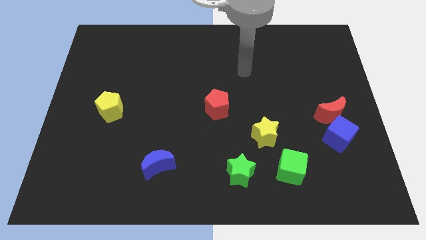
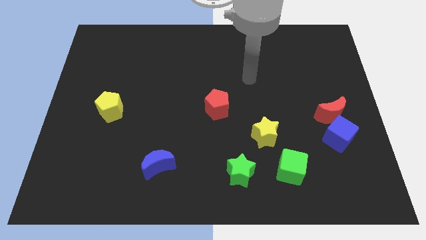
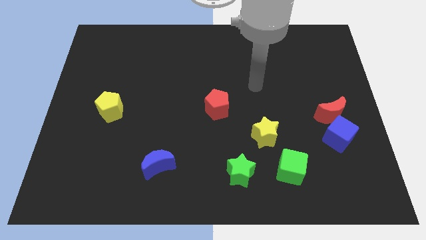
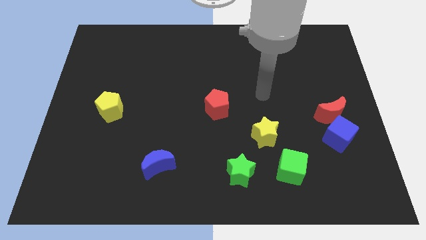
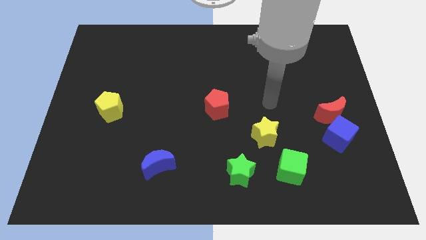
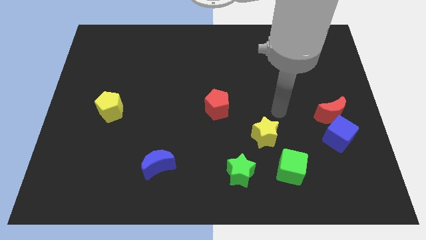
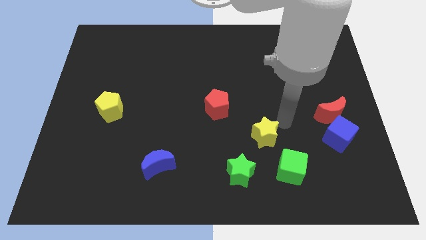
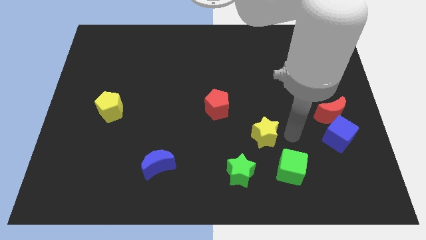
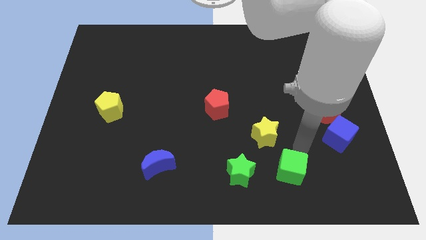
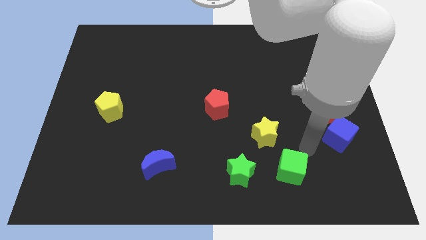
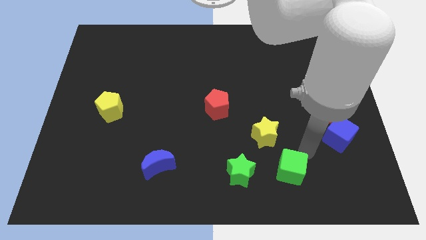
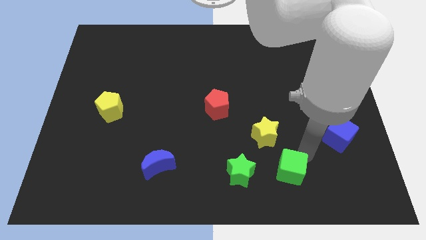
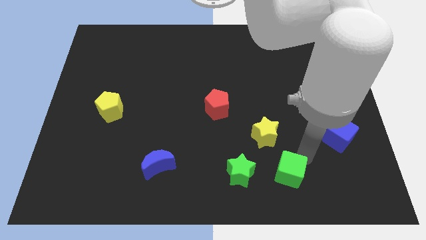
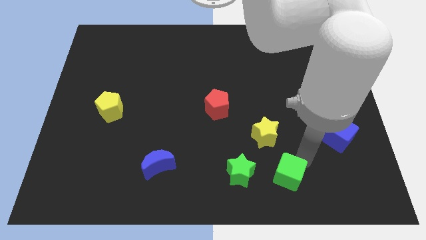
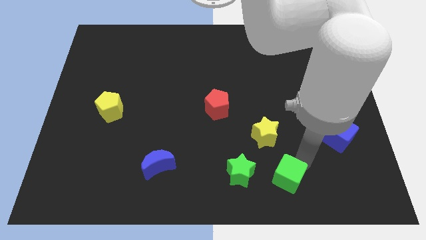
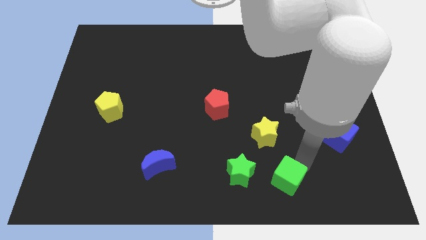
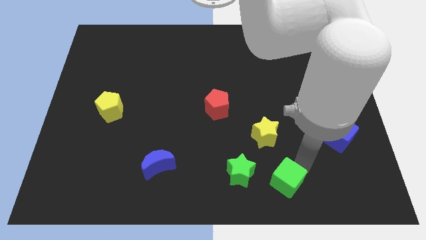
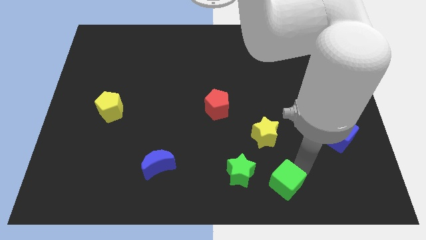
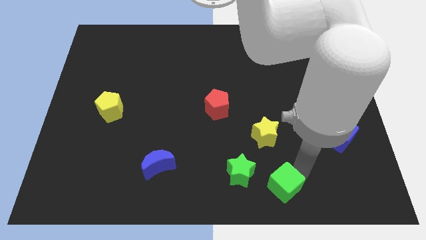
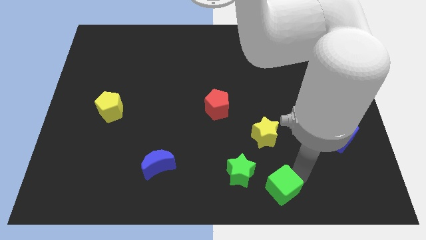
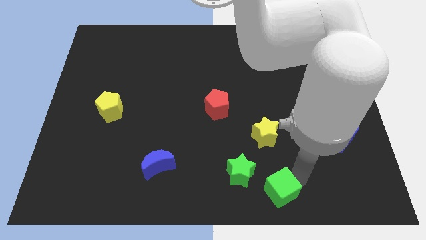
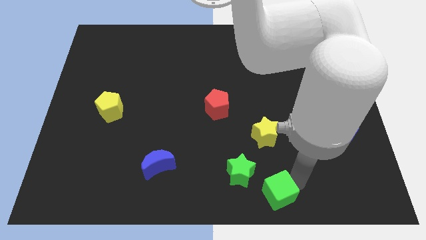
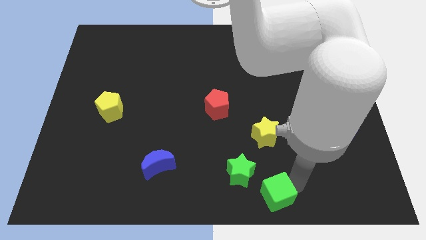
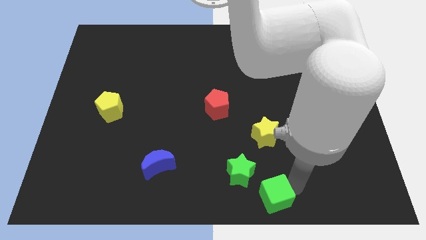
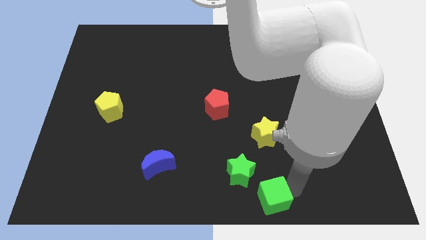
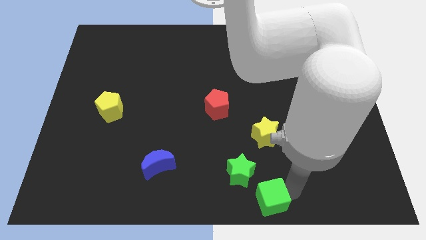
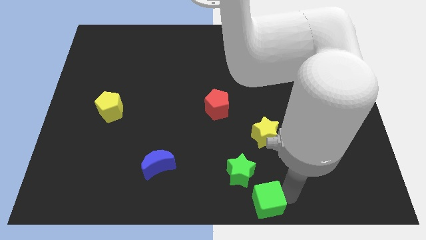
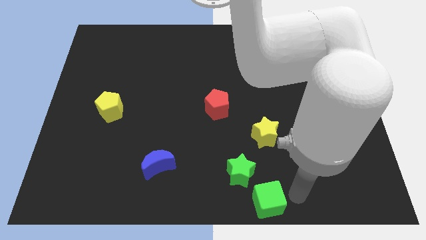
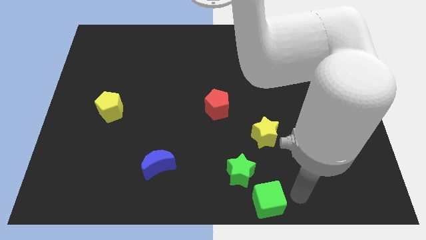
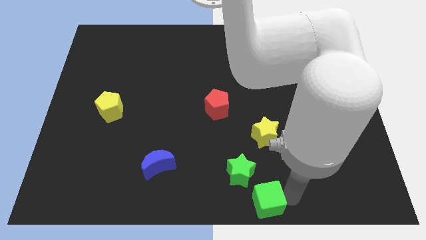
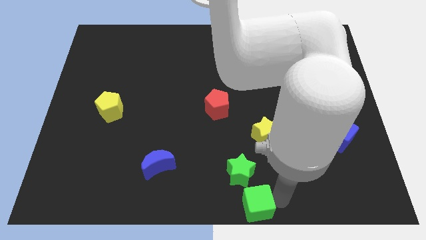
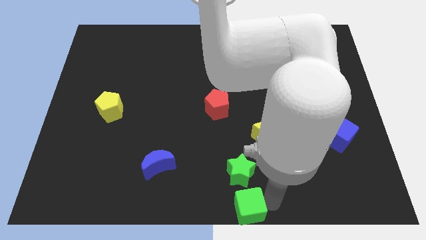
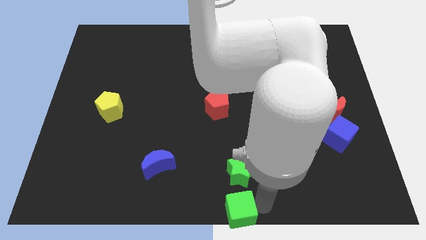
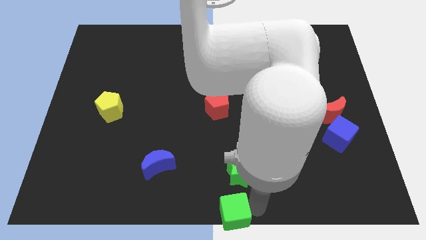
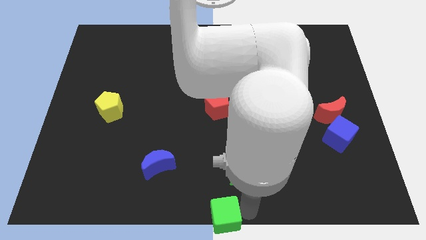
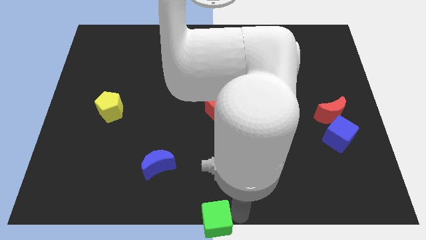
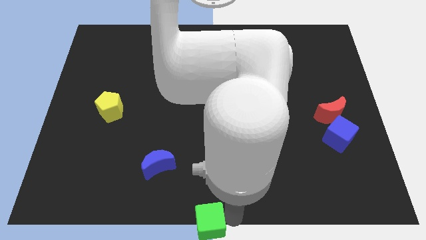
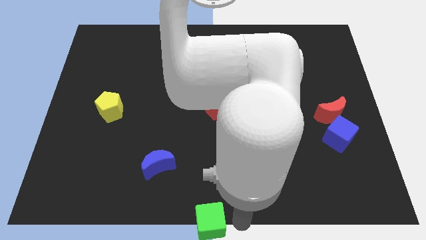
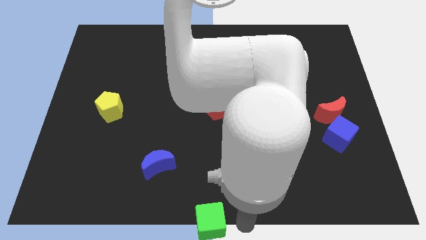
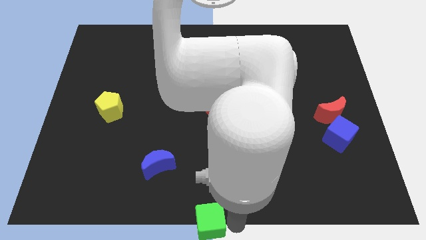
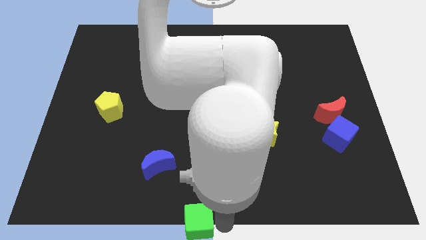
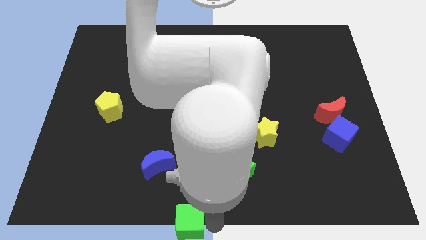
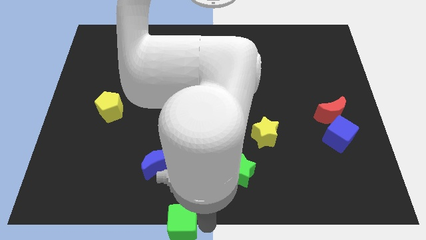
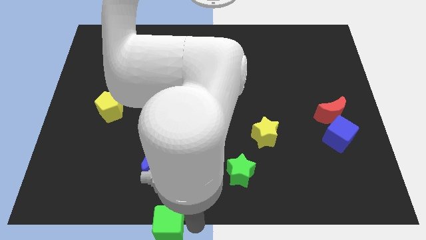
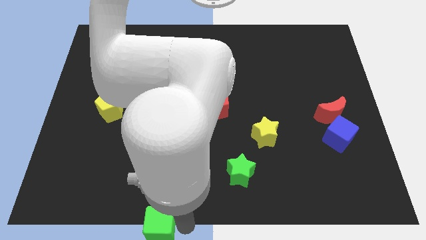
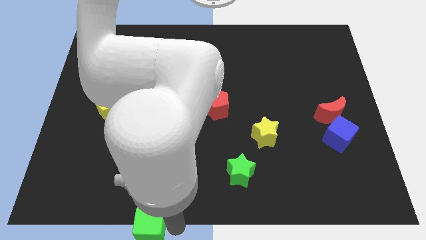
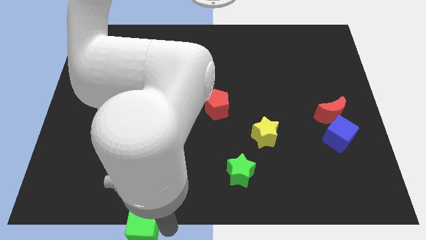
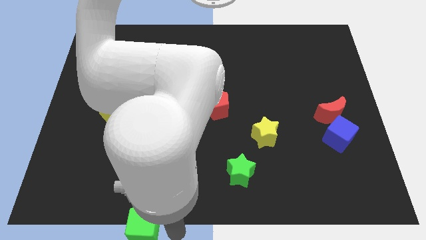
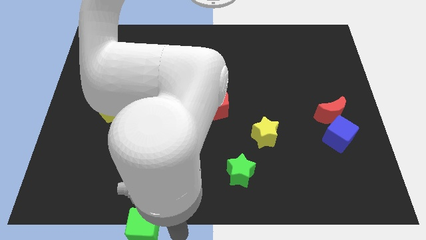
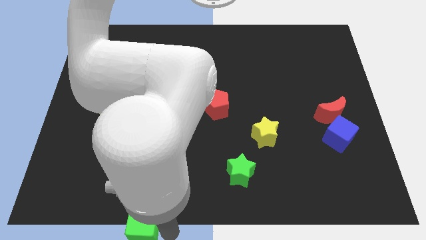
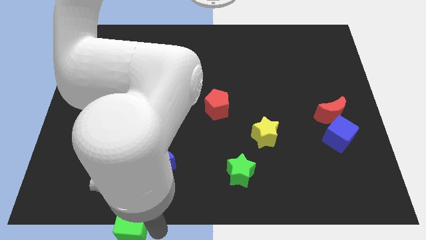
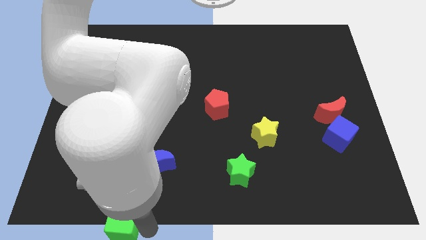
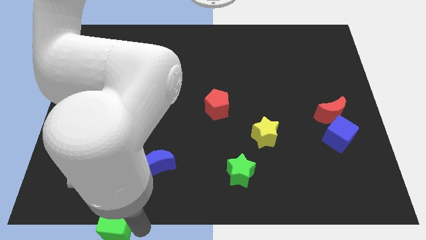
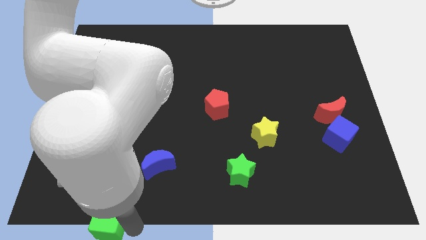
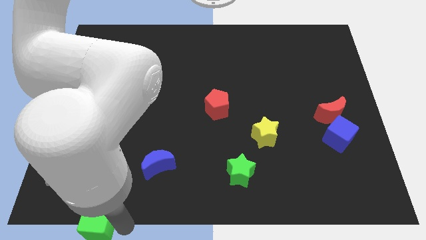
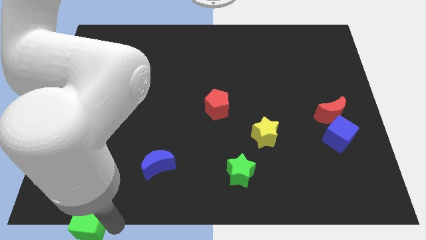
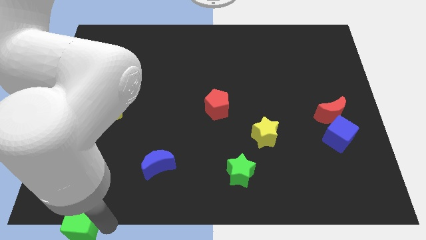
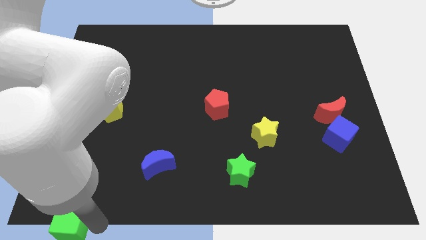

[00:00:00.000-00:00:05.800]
slide the green cube to the bottom left of the board

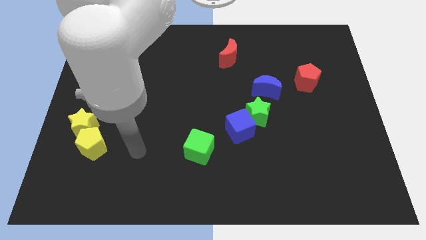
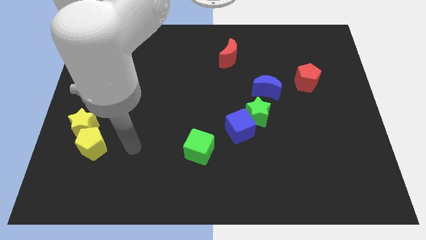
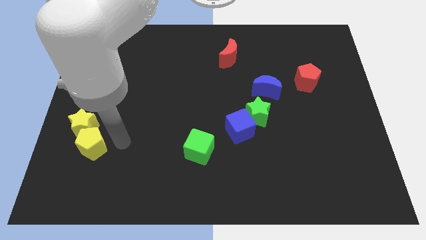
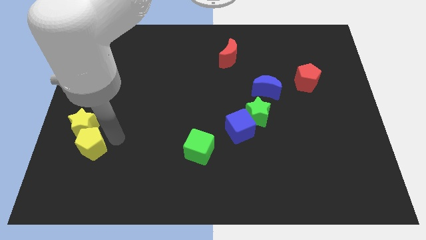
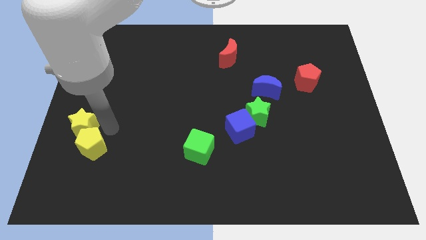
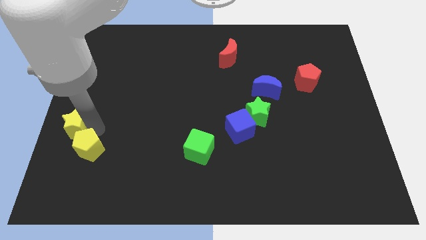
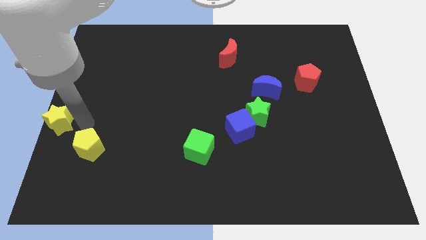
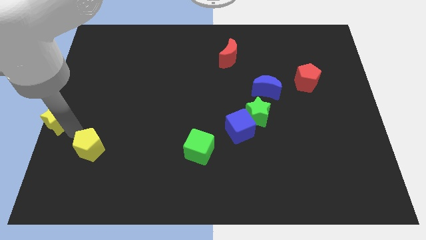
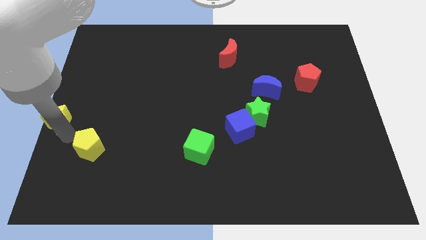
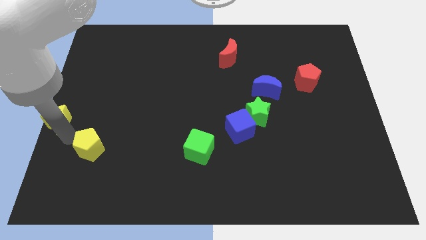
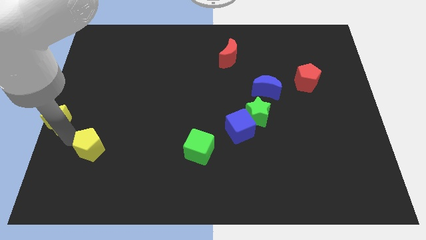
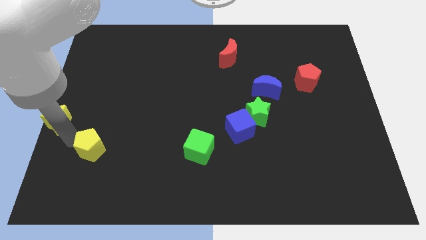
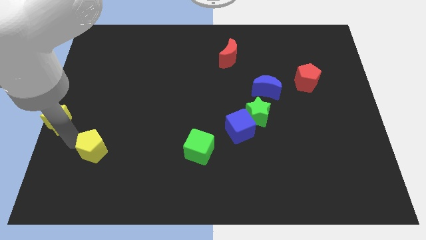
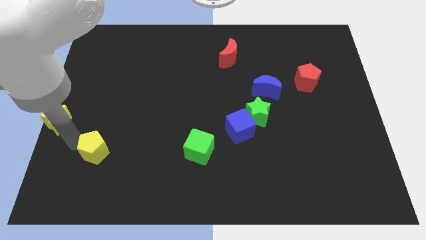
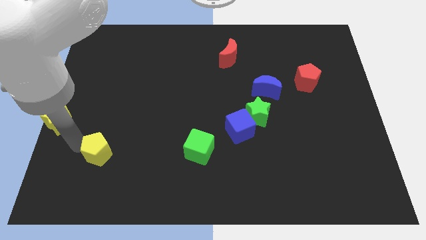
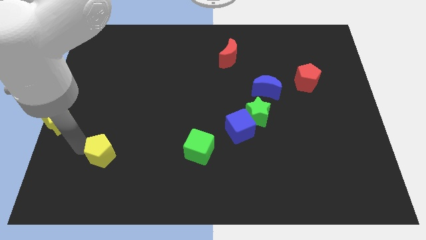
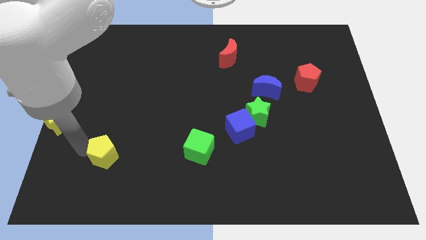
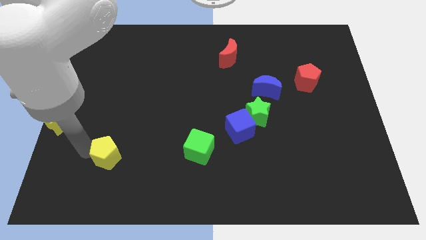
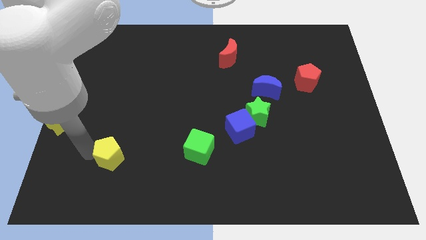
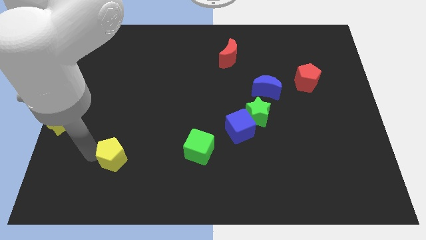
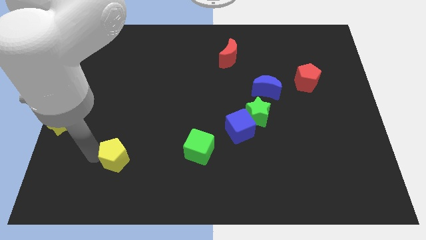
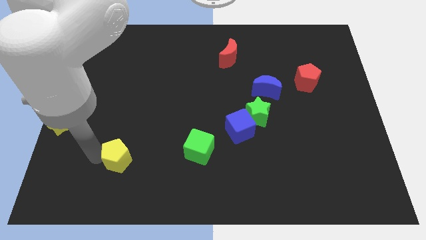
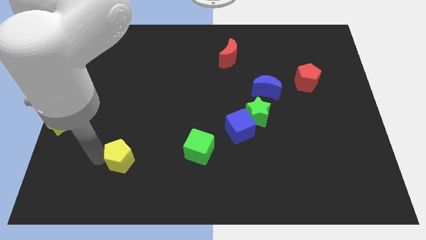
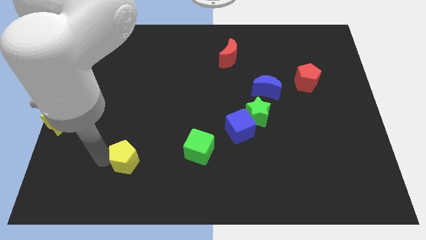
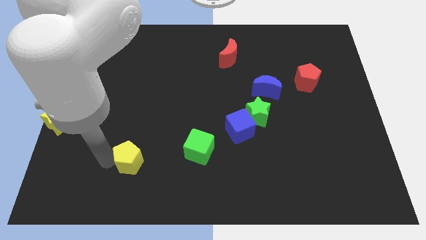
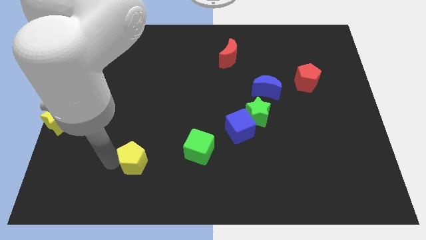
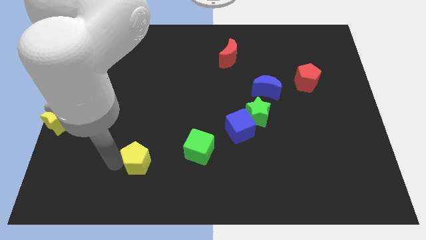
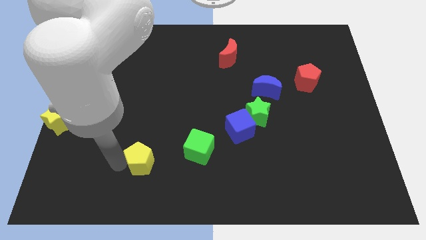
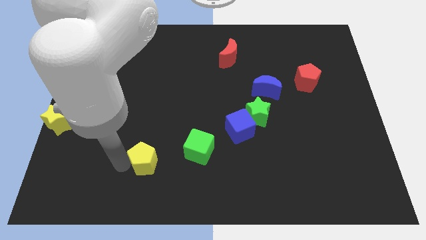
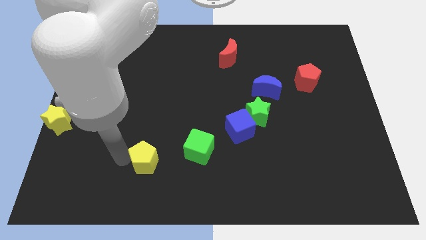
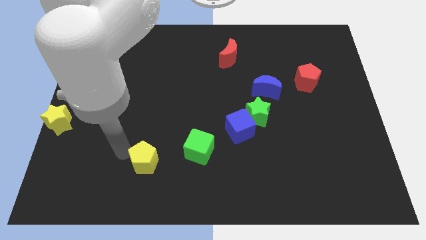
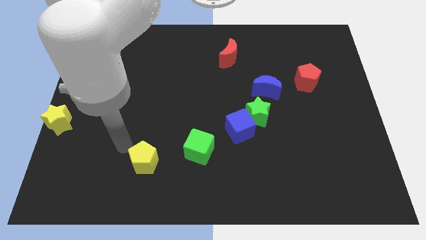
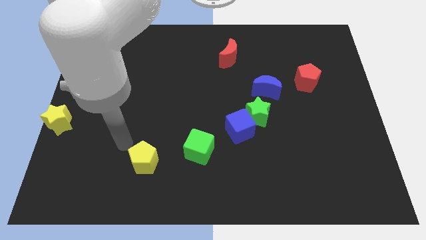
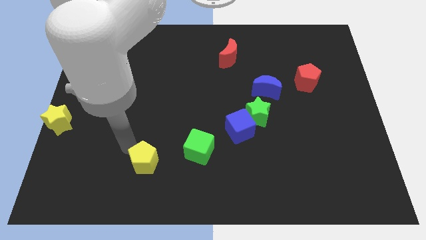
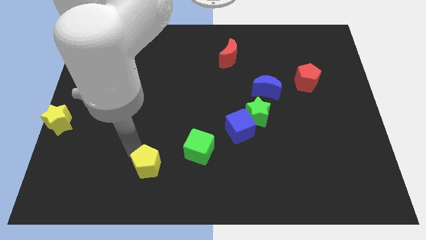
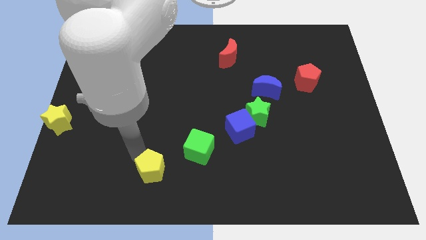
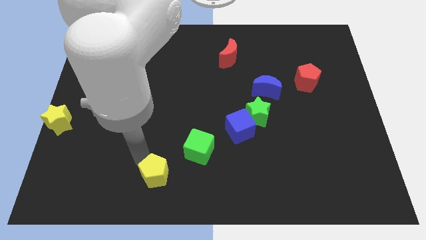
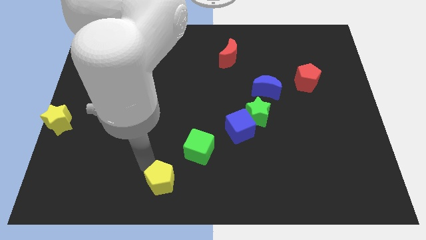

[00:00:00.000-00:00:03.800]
push the yellow pentagon to the bottom
